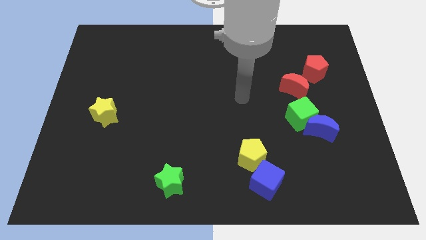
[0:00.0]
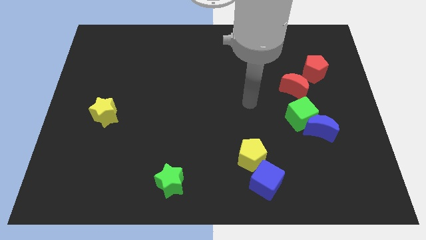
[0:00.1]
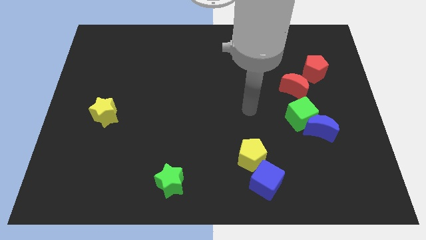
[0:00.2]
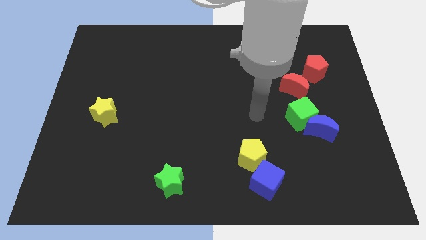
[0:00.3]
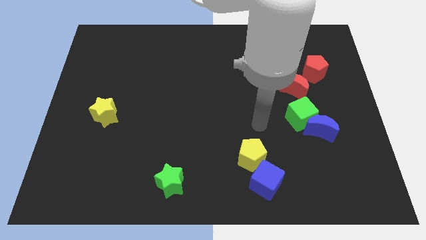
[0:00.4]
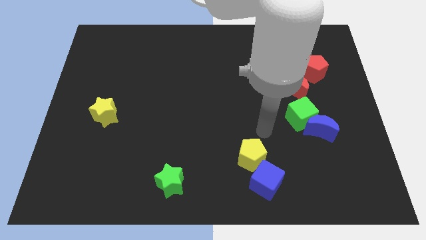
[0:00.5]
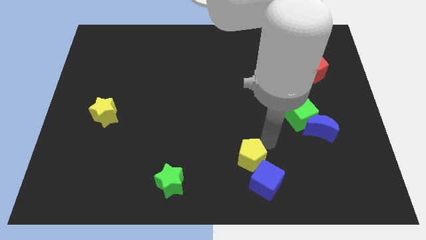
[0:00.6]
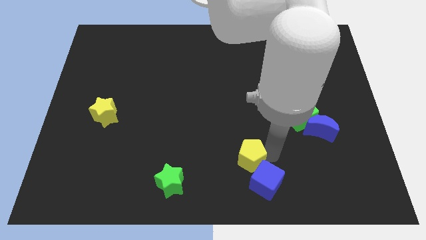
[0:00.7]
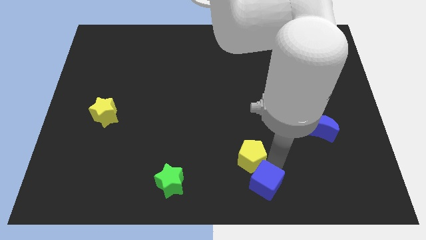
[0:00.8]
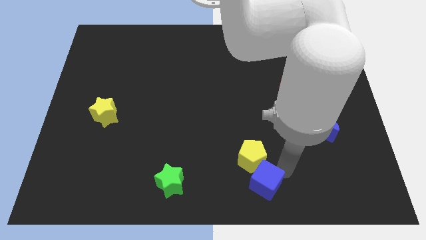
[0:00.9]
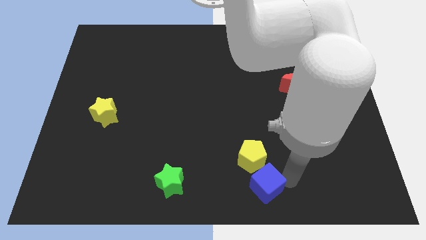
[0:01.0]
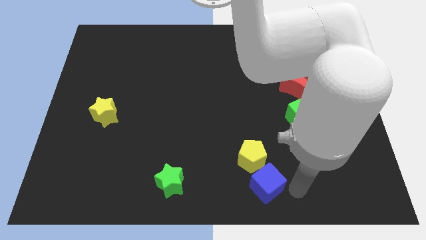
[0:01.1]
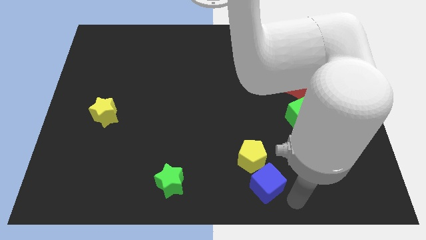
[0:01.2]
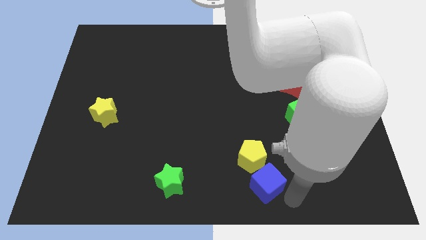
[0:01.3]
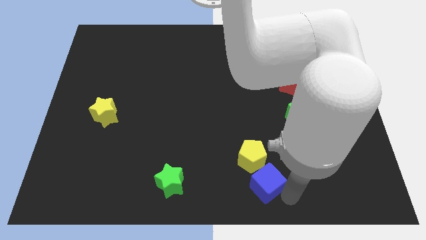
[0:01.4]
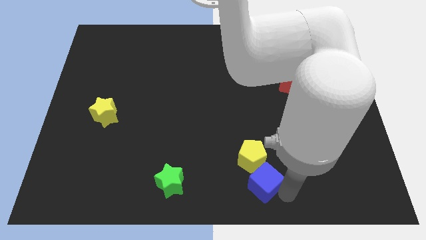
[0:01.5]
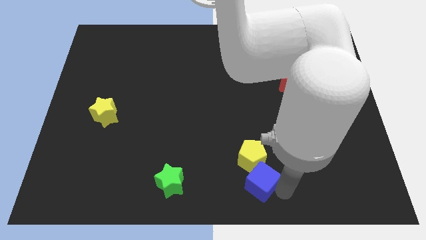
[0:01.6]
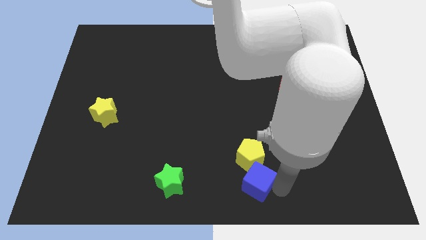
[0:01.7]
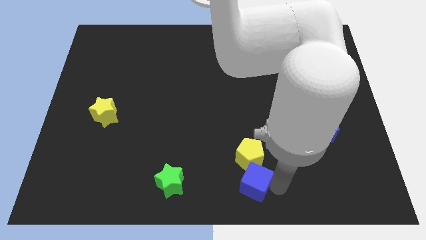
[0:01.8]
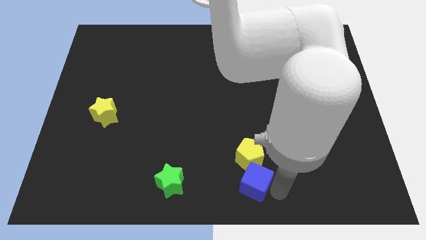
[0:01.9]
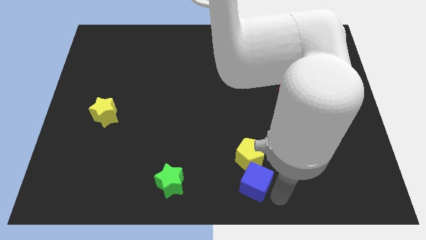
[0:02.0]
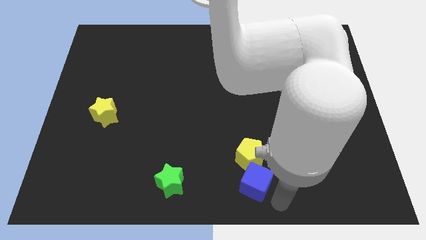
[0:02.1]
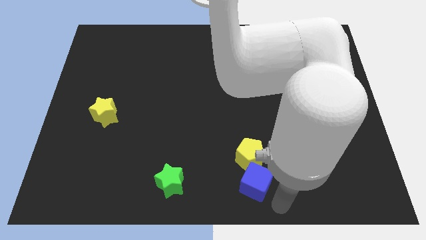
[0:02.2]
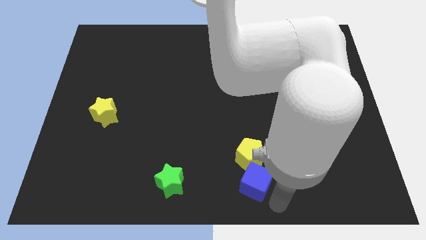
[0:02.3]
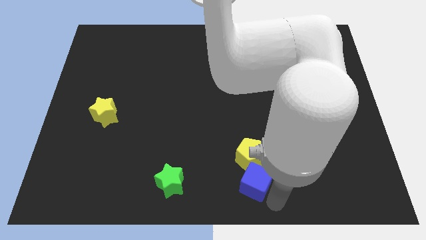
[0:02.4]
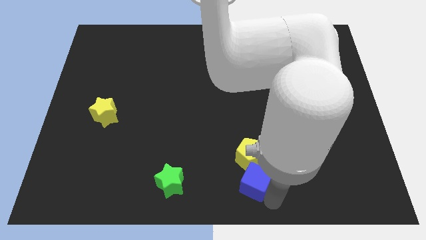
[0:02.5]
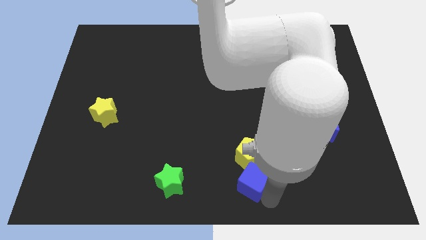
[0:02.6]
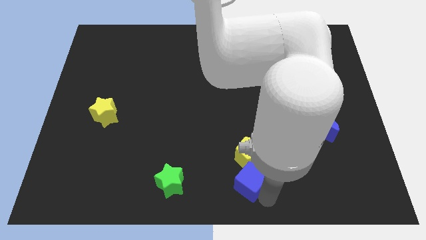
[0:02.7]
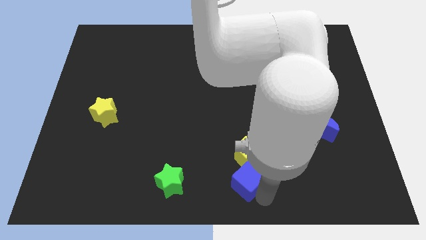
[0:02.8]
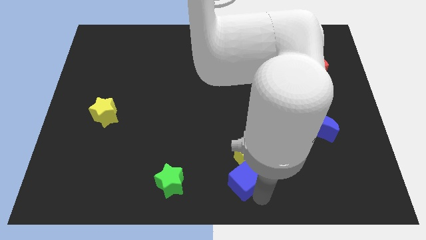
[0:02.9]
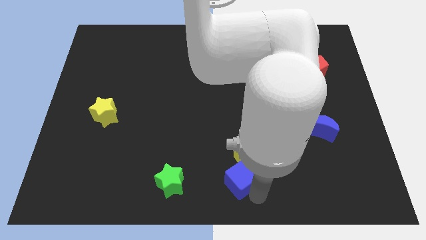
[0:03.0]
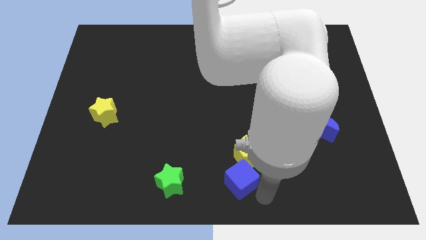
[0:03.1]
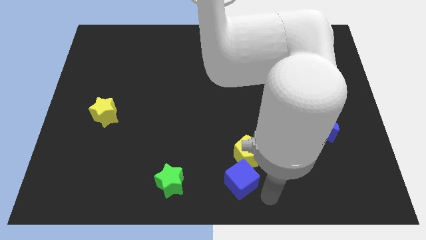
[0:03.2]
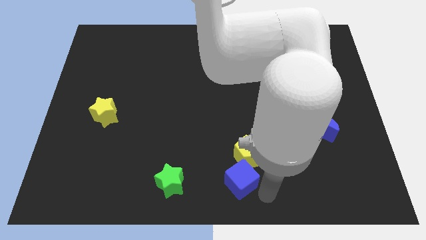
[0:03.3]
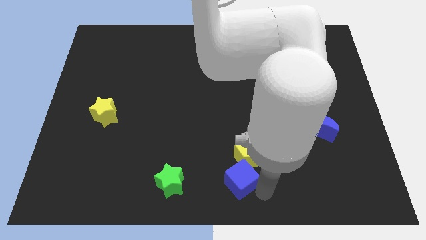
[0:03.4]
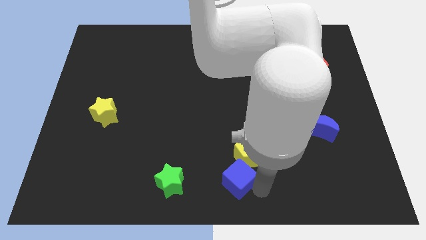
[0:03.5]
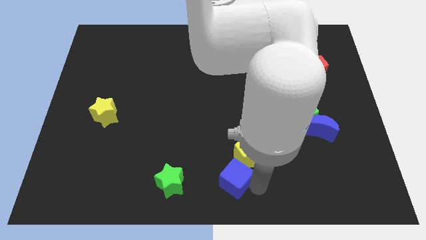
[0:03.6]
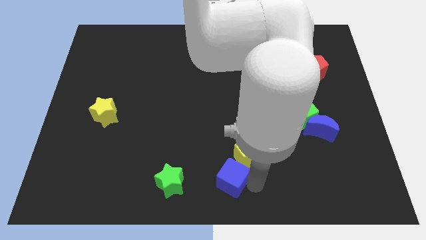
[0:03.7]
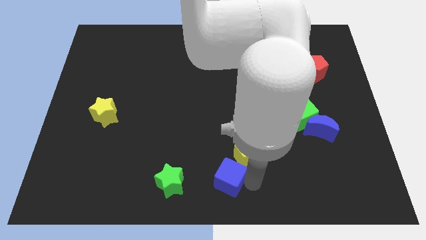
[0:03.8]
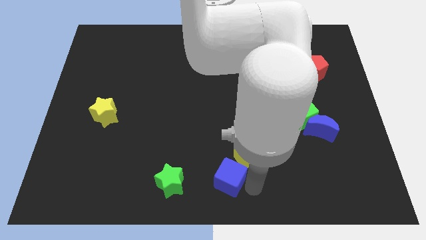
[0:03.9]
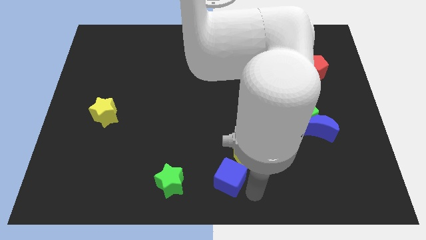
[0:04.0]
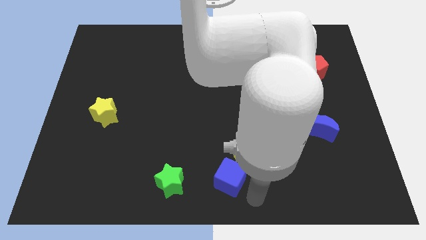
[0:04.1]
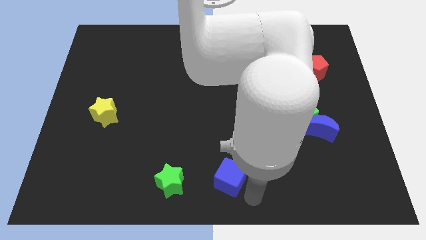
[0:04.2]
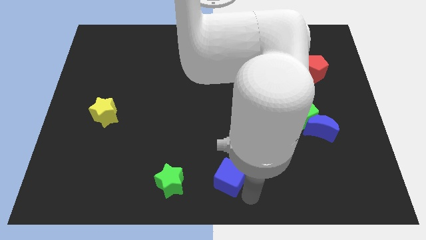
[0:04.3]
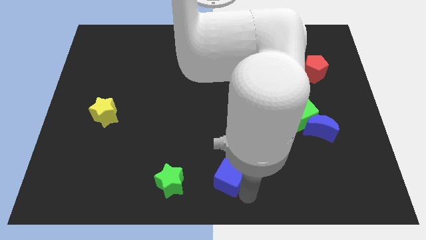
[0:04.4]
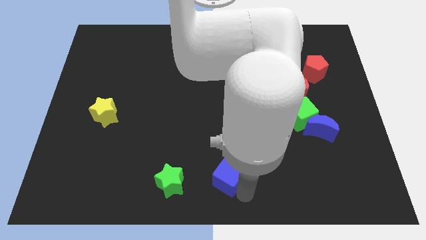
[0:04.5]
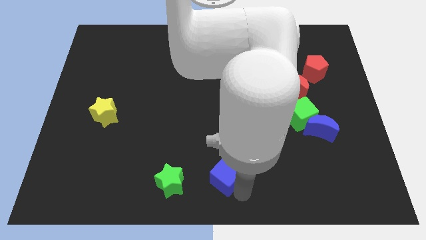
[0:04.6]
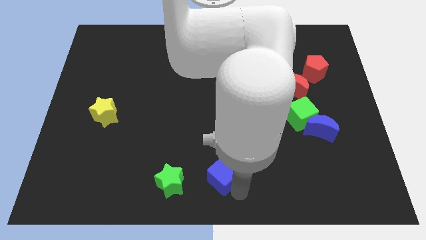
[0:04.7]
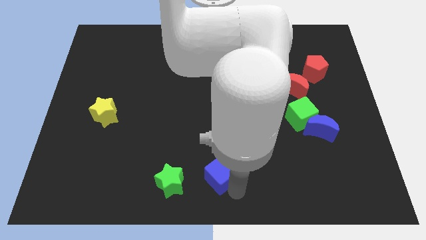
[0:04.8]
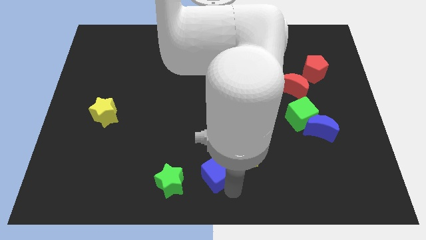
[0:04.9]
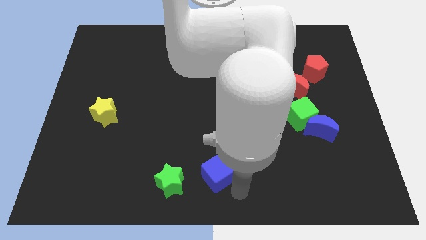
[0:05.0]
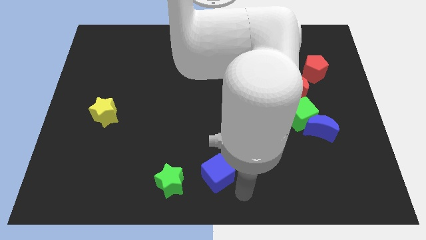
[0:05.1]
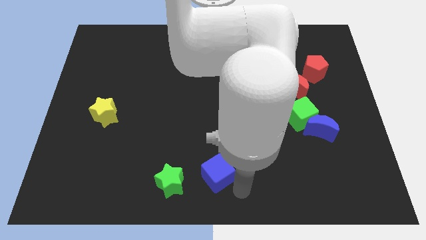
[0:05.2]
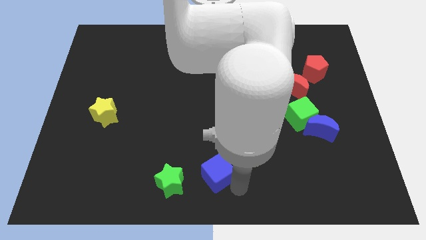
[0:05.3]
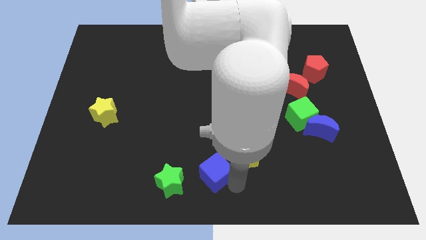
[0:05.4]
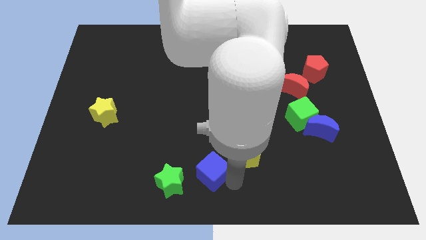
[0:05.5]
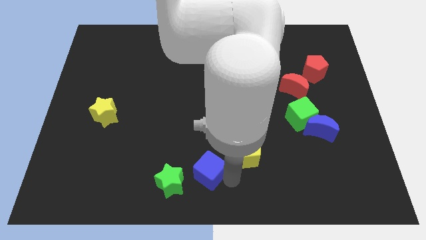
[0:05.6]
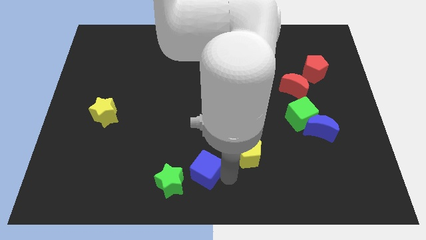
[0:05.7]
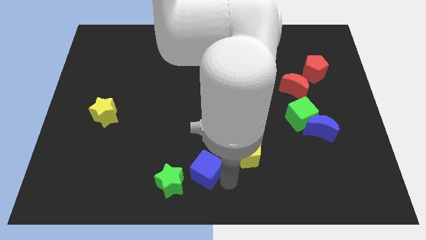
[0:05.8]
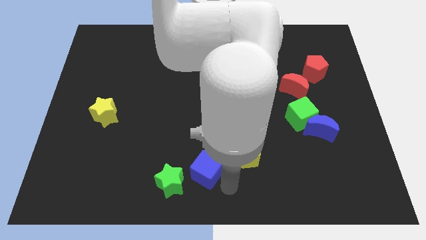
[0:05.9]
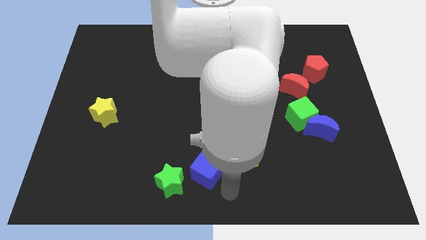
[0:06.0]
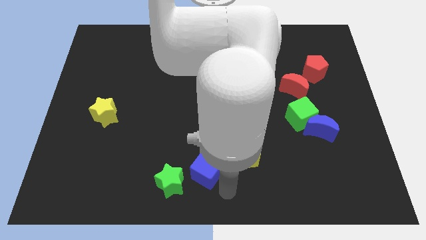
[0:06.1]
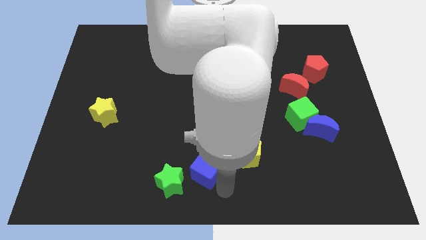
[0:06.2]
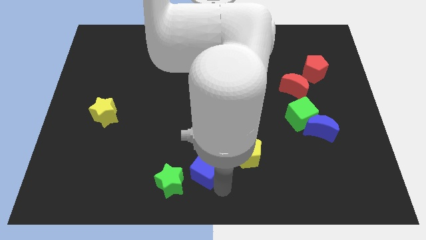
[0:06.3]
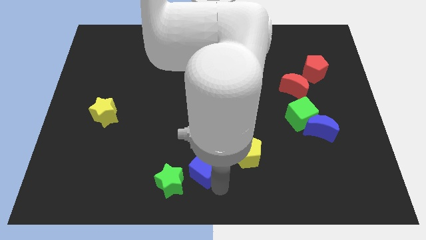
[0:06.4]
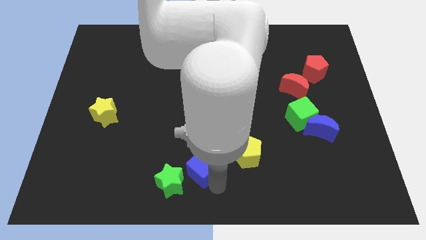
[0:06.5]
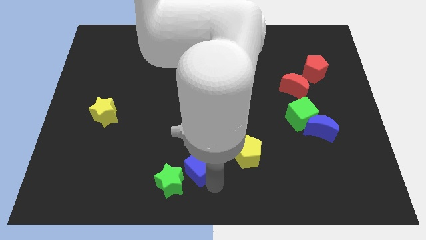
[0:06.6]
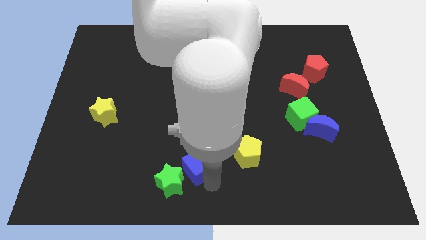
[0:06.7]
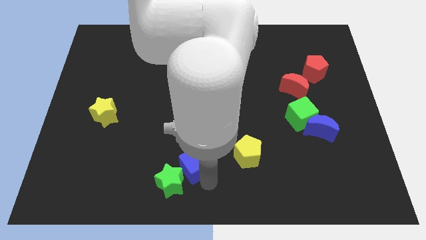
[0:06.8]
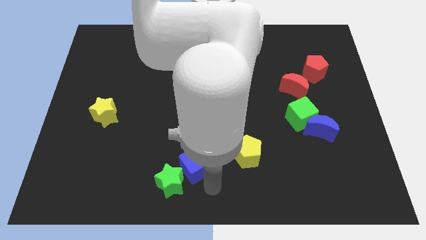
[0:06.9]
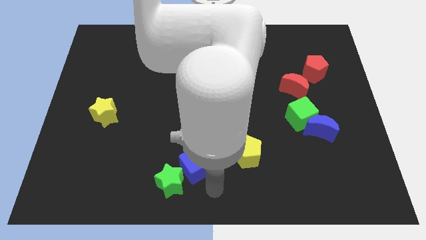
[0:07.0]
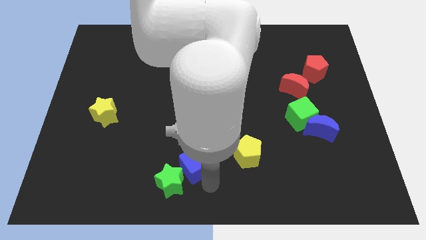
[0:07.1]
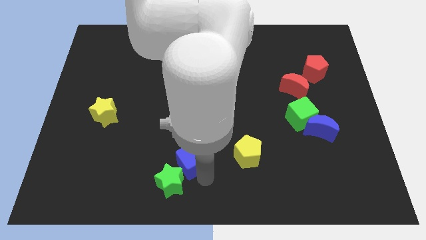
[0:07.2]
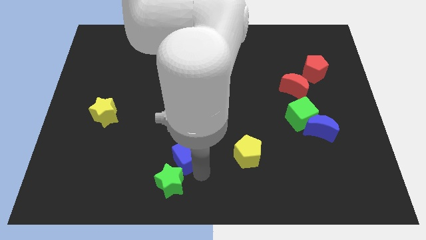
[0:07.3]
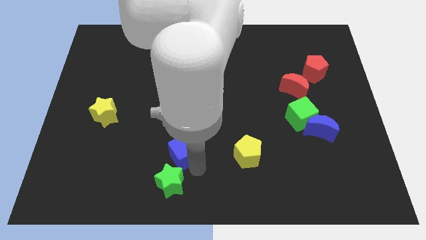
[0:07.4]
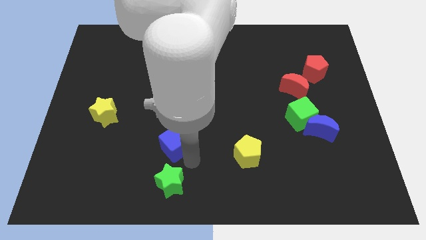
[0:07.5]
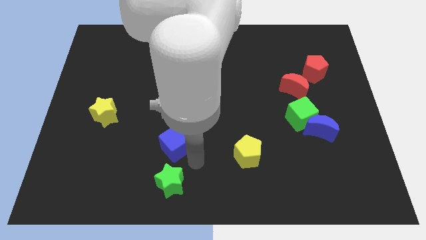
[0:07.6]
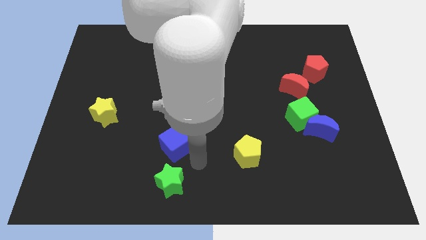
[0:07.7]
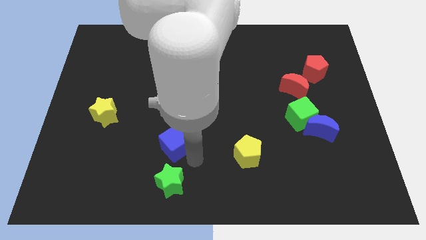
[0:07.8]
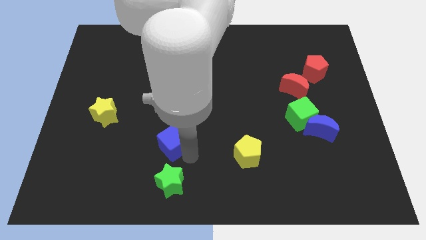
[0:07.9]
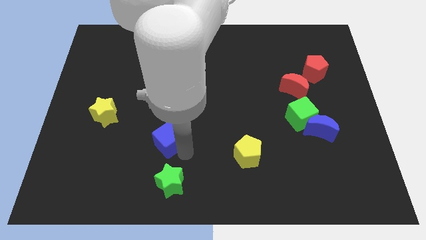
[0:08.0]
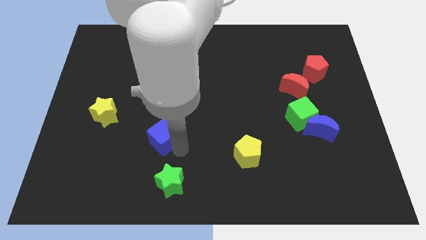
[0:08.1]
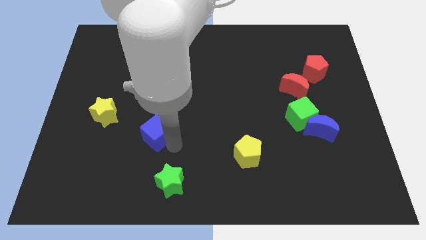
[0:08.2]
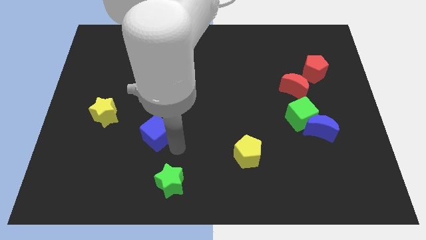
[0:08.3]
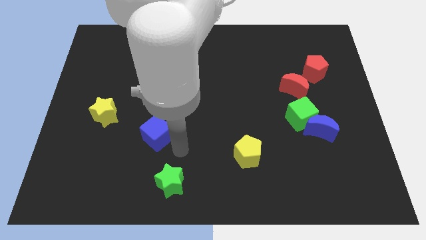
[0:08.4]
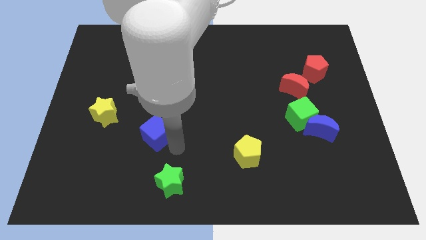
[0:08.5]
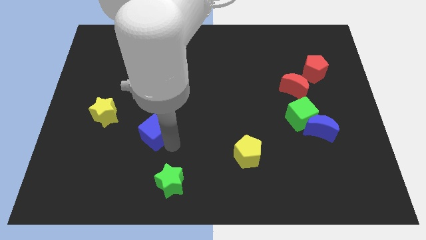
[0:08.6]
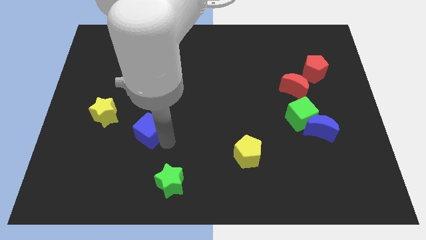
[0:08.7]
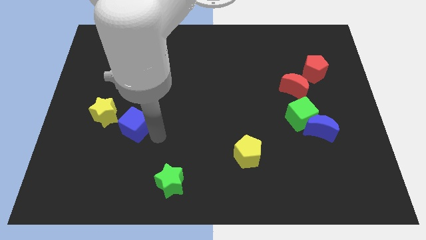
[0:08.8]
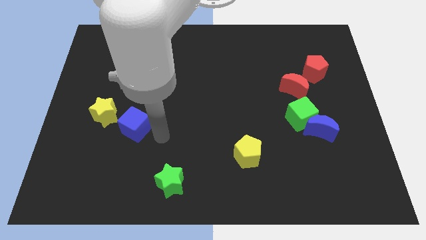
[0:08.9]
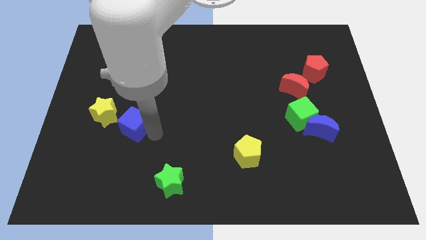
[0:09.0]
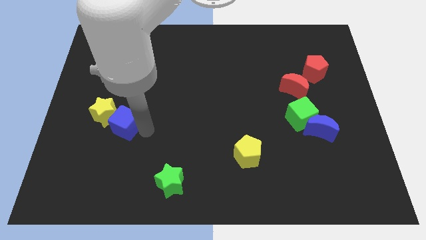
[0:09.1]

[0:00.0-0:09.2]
slide the blue cube next to the yellow star
